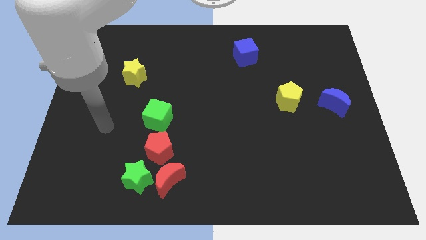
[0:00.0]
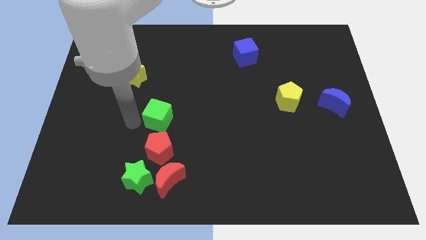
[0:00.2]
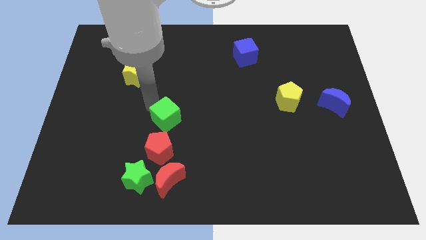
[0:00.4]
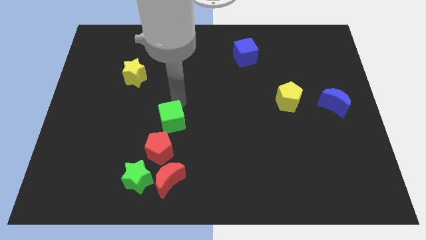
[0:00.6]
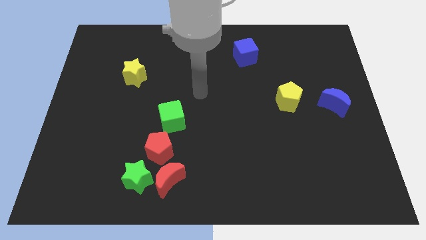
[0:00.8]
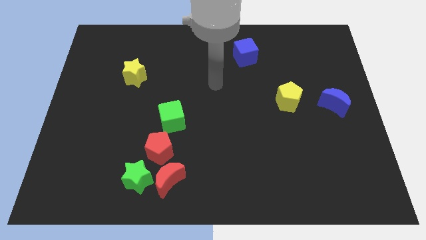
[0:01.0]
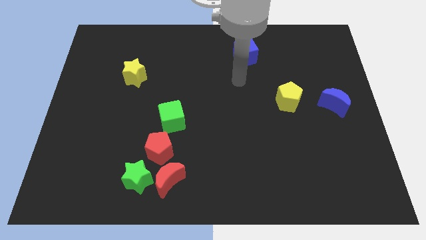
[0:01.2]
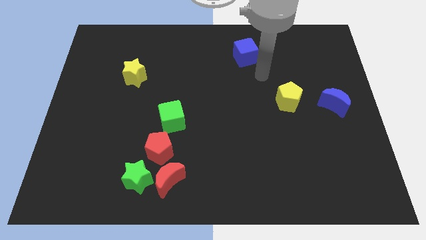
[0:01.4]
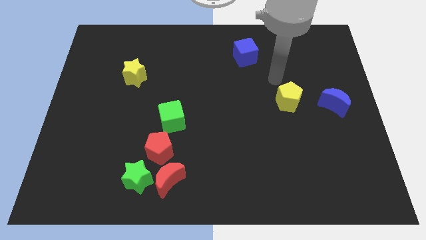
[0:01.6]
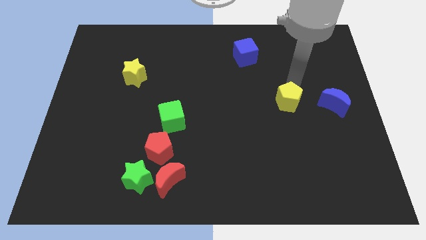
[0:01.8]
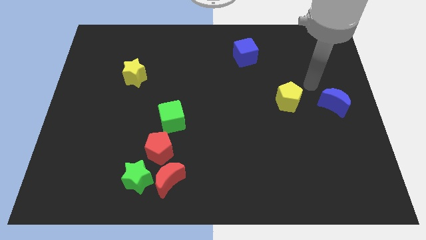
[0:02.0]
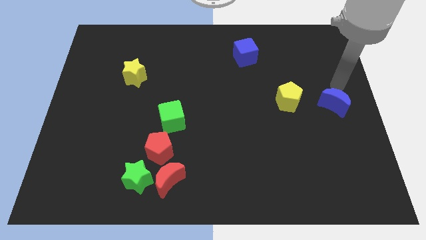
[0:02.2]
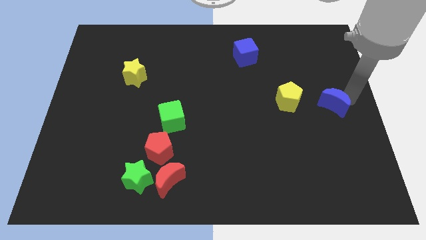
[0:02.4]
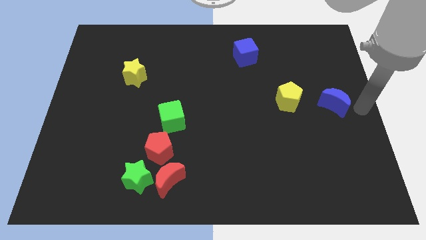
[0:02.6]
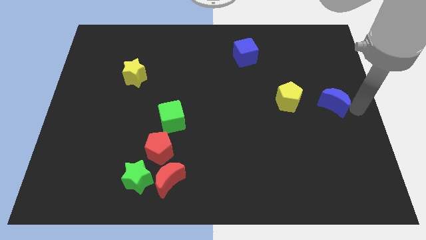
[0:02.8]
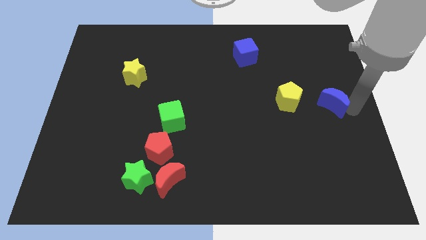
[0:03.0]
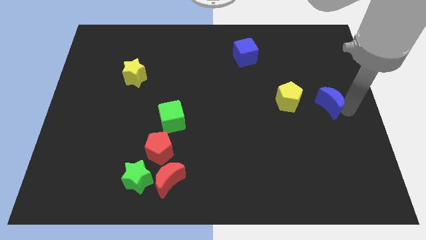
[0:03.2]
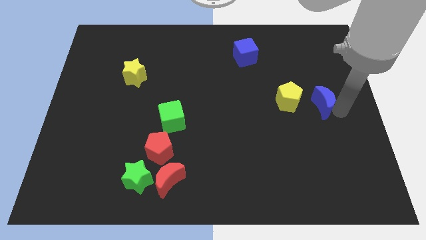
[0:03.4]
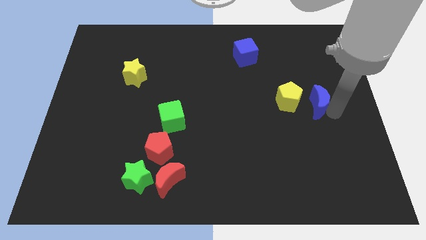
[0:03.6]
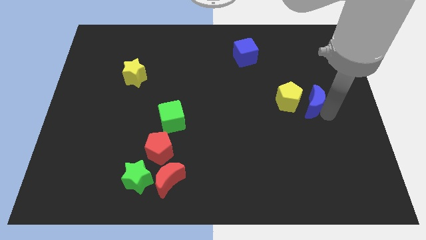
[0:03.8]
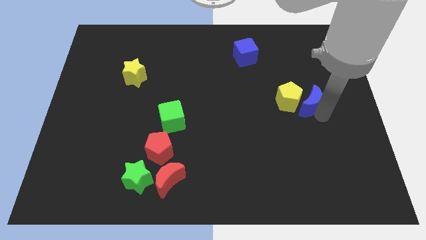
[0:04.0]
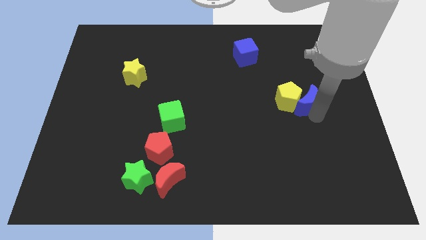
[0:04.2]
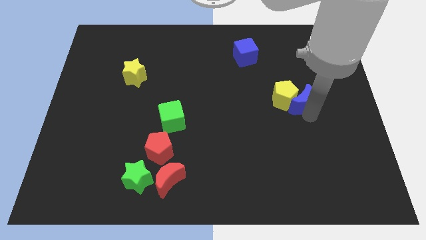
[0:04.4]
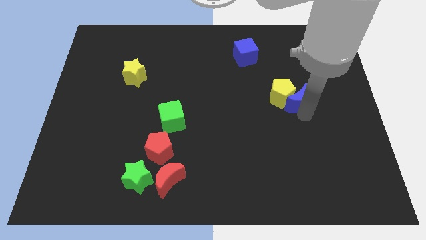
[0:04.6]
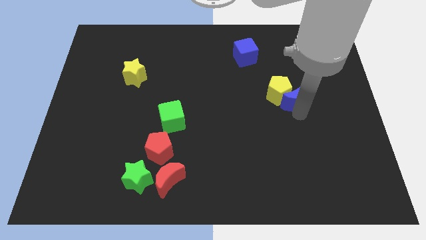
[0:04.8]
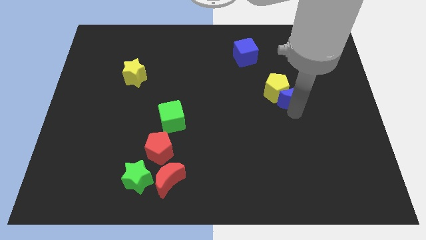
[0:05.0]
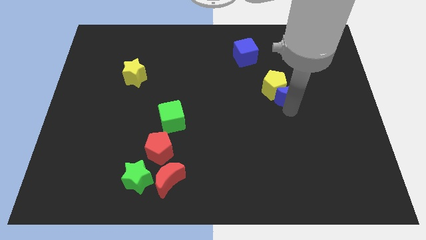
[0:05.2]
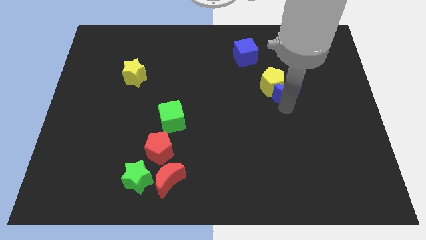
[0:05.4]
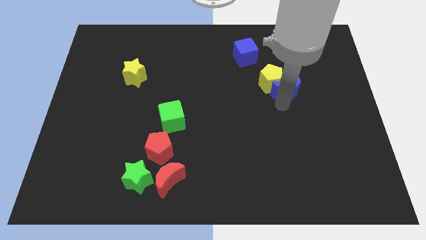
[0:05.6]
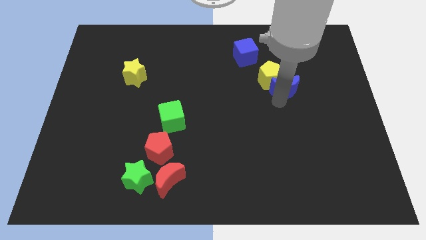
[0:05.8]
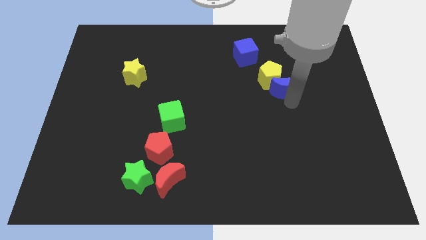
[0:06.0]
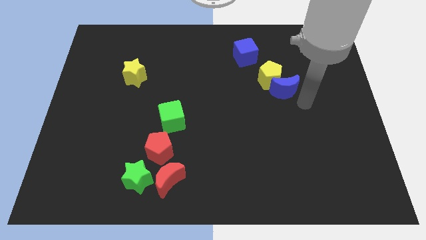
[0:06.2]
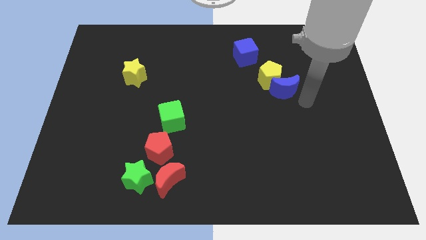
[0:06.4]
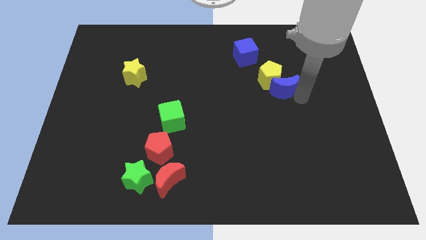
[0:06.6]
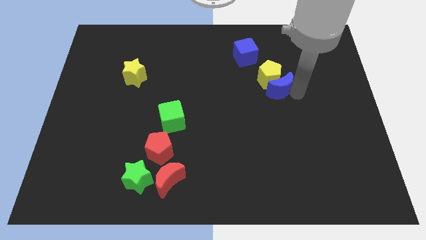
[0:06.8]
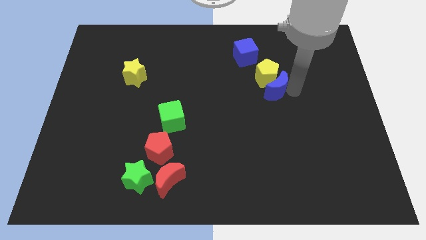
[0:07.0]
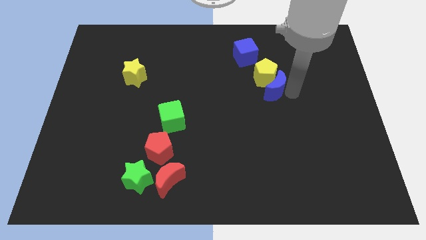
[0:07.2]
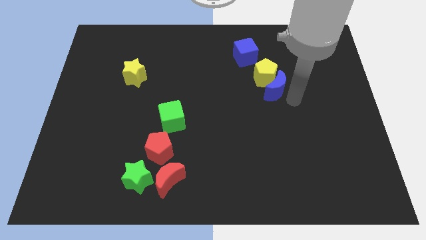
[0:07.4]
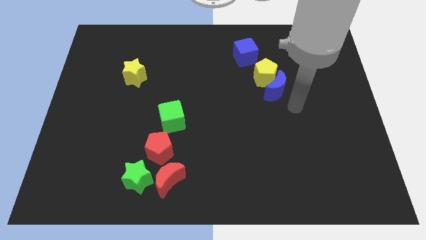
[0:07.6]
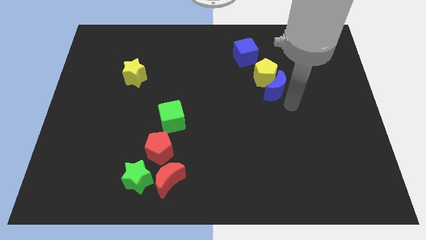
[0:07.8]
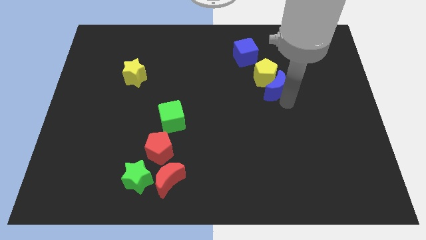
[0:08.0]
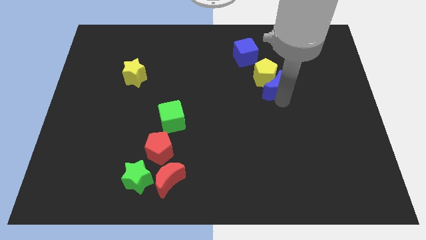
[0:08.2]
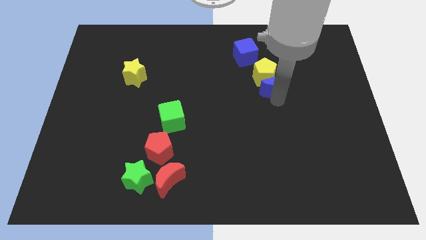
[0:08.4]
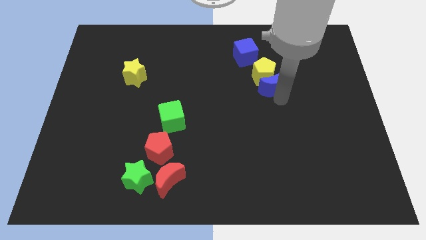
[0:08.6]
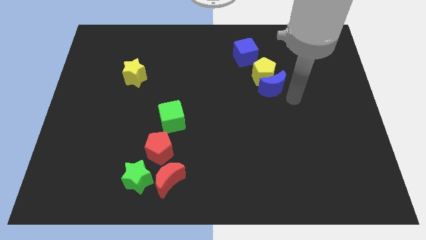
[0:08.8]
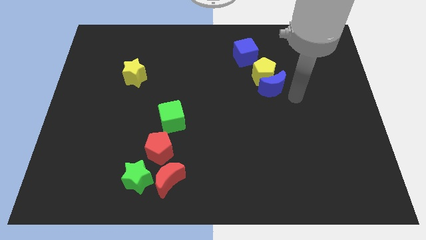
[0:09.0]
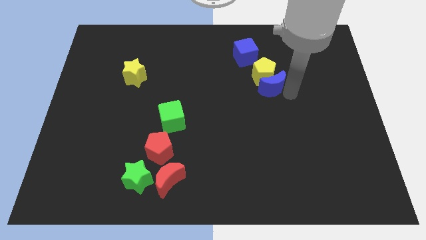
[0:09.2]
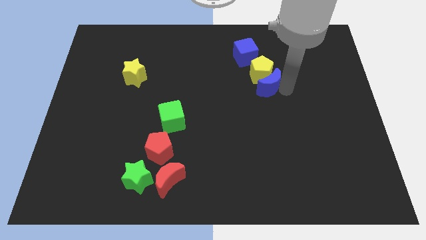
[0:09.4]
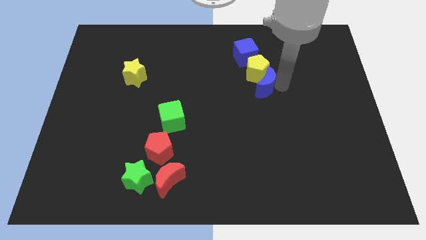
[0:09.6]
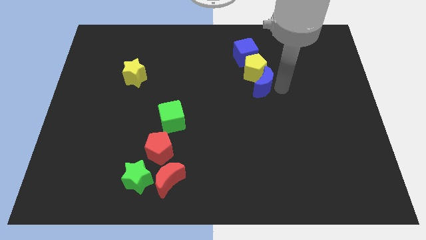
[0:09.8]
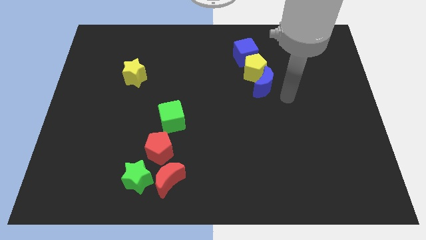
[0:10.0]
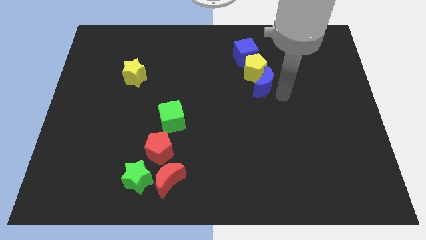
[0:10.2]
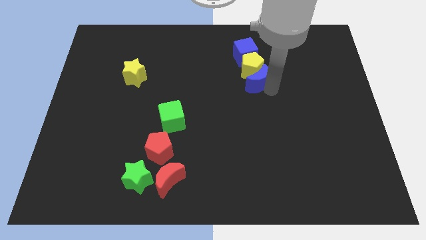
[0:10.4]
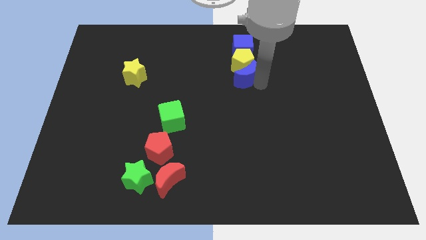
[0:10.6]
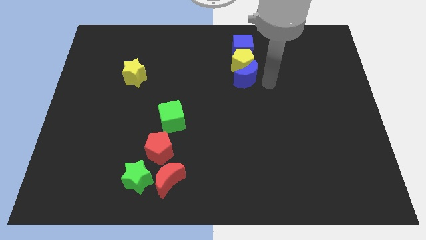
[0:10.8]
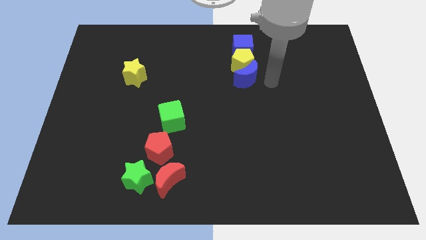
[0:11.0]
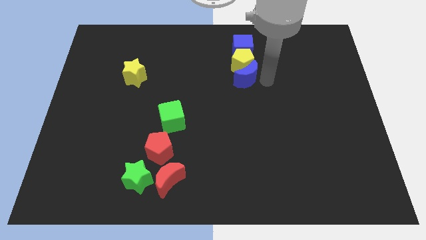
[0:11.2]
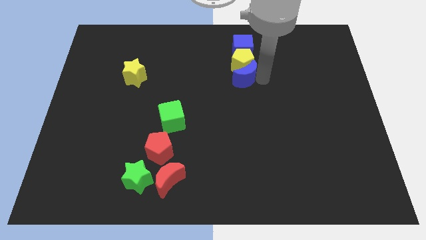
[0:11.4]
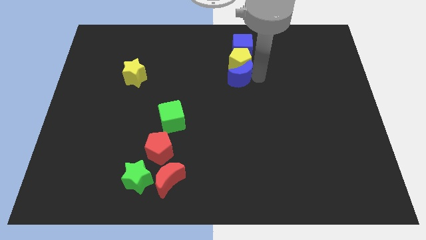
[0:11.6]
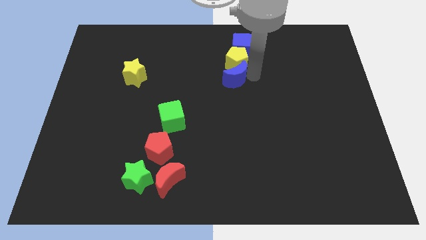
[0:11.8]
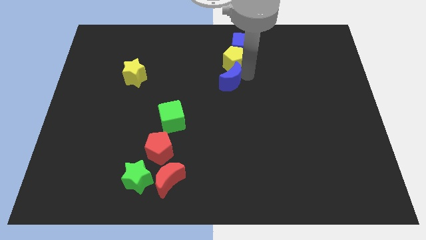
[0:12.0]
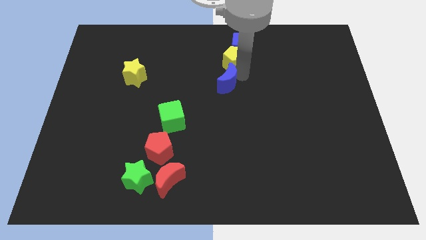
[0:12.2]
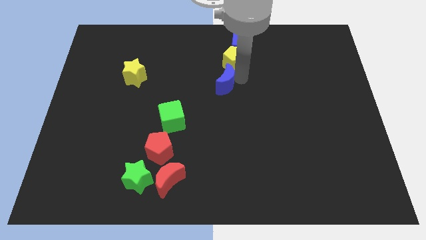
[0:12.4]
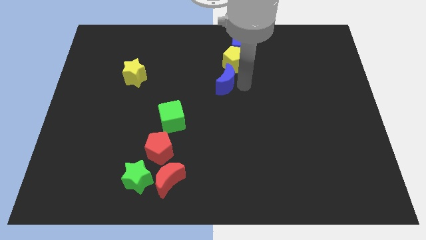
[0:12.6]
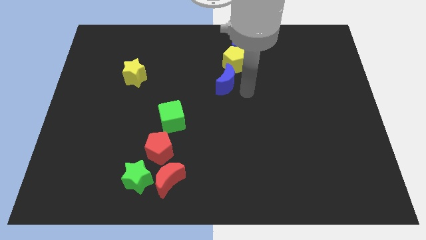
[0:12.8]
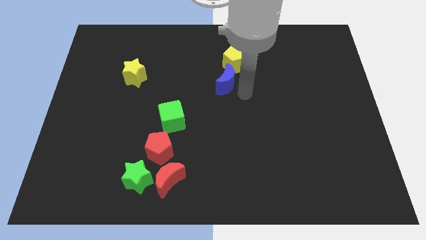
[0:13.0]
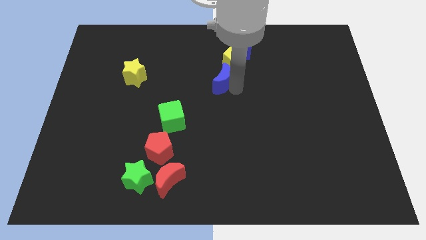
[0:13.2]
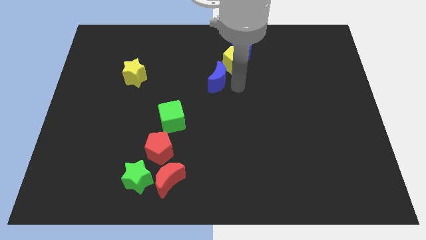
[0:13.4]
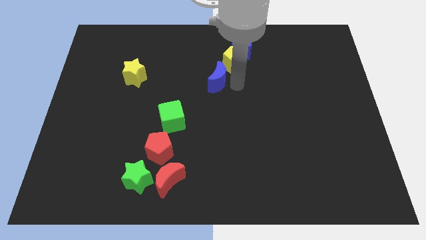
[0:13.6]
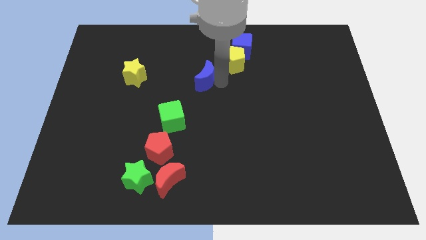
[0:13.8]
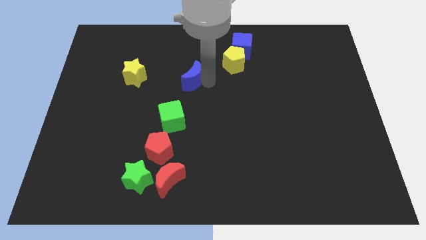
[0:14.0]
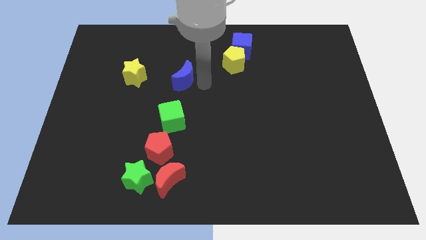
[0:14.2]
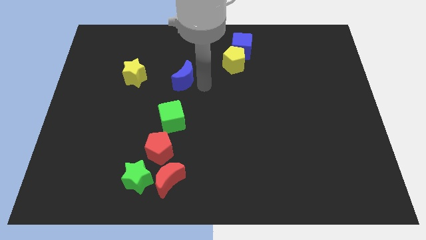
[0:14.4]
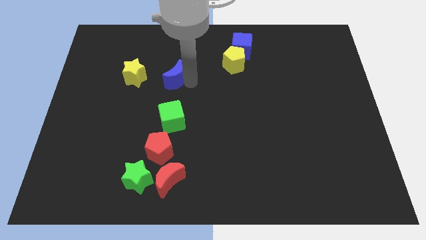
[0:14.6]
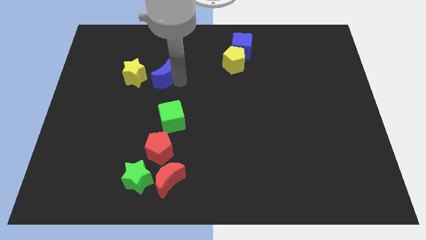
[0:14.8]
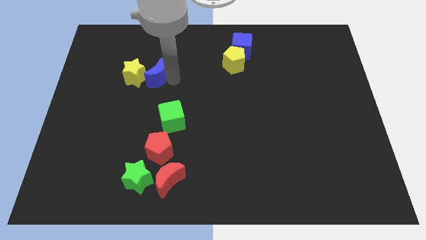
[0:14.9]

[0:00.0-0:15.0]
move the blue moon towards the yellow star

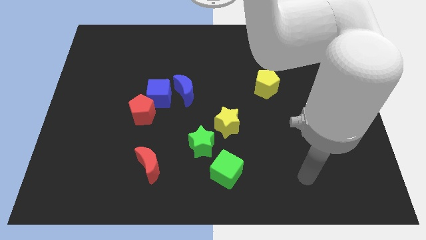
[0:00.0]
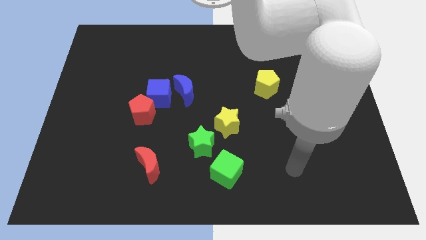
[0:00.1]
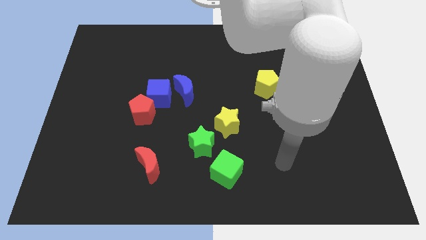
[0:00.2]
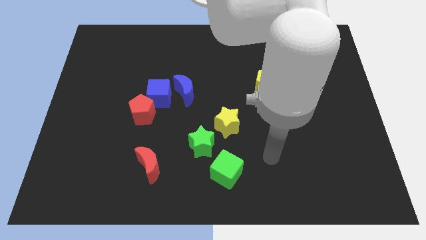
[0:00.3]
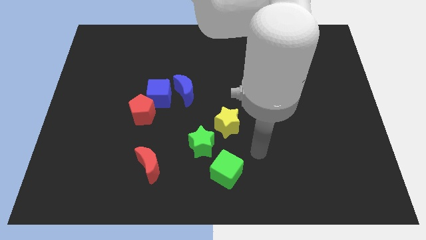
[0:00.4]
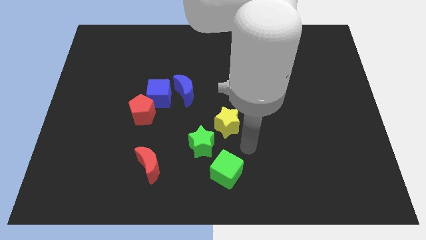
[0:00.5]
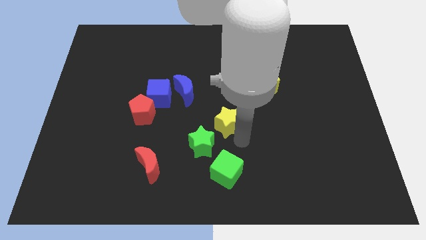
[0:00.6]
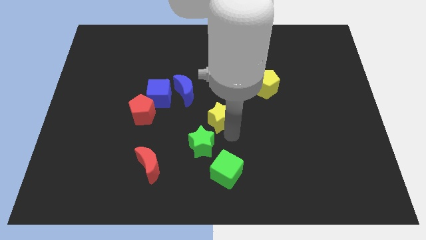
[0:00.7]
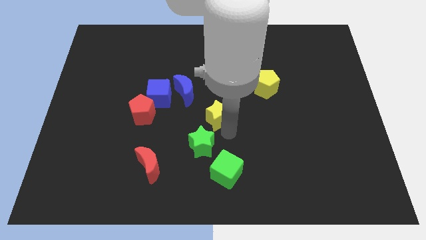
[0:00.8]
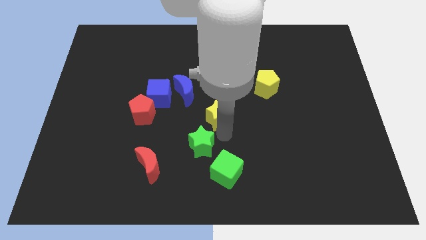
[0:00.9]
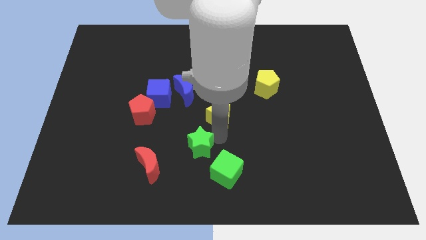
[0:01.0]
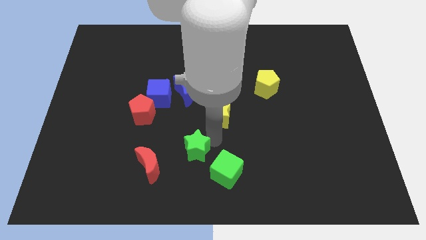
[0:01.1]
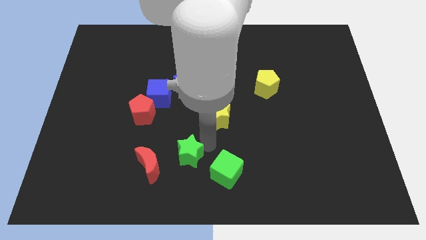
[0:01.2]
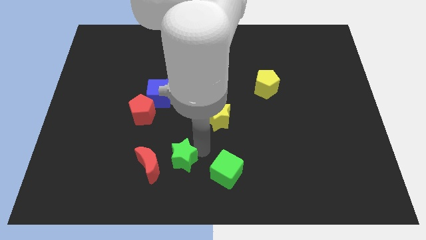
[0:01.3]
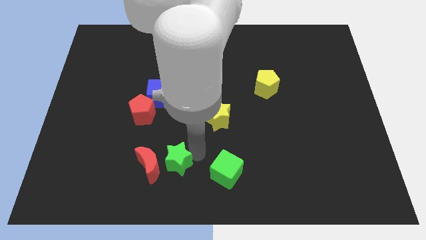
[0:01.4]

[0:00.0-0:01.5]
push the green star next to the red moon
